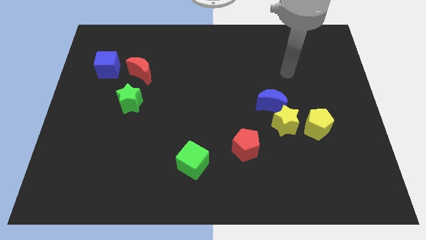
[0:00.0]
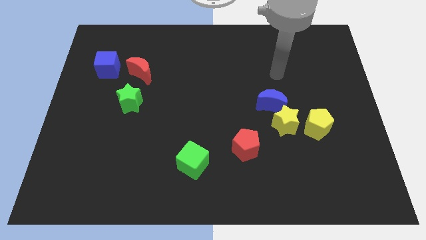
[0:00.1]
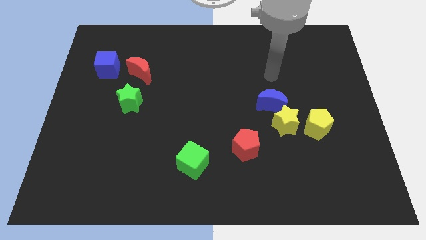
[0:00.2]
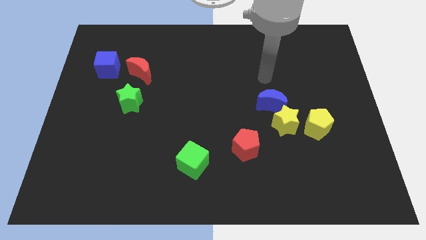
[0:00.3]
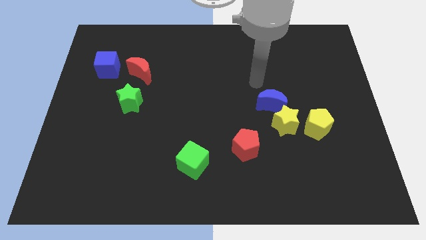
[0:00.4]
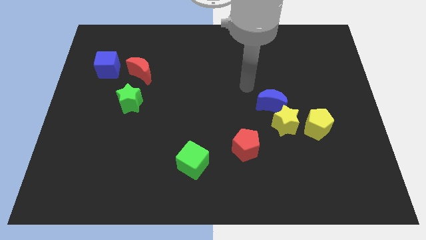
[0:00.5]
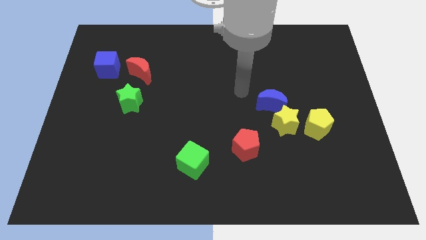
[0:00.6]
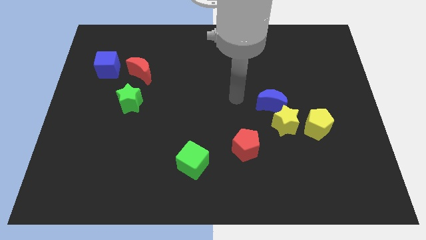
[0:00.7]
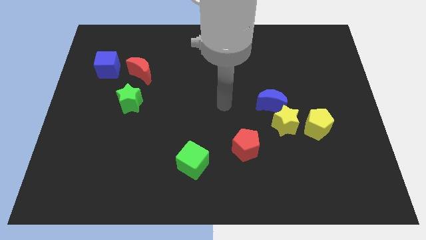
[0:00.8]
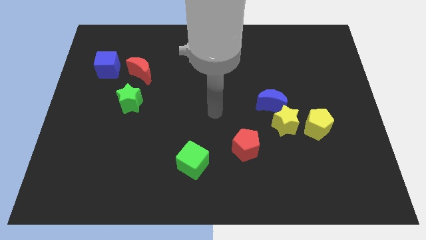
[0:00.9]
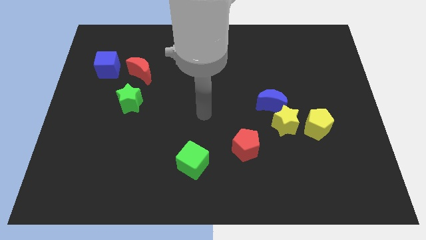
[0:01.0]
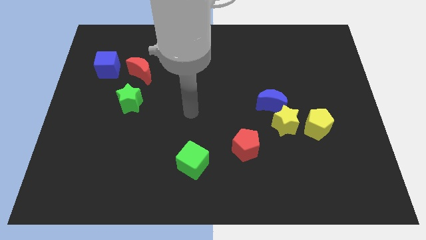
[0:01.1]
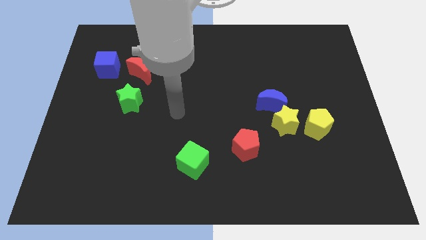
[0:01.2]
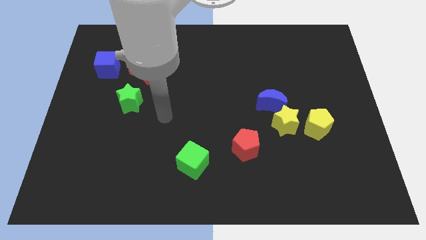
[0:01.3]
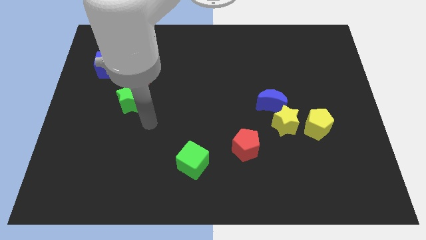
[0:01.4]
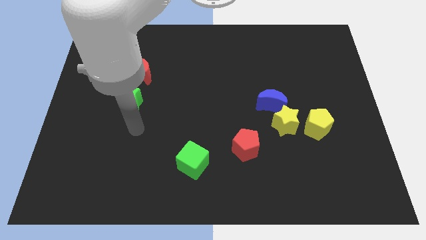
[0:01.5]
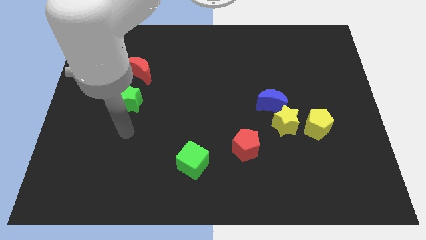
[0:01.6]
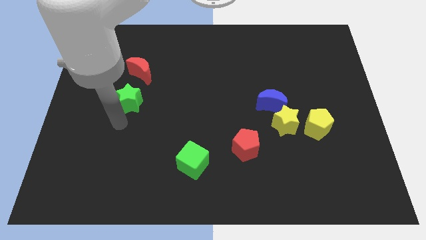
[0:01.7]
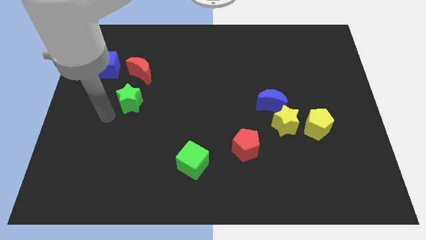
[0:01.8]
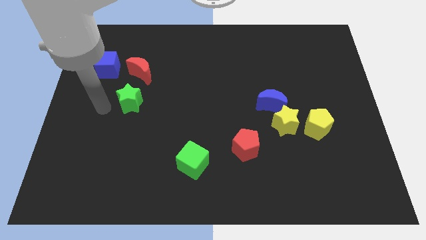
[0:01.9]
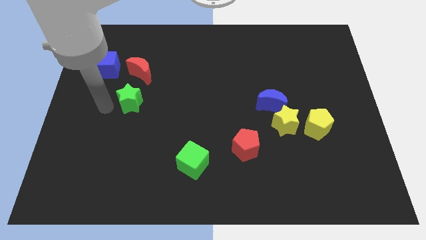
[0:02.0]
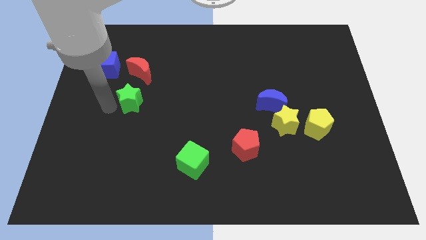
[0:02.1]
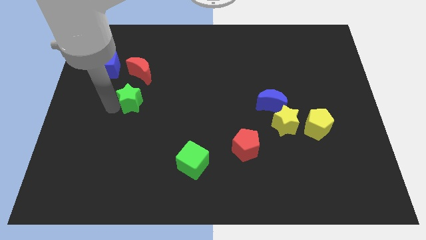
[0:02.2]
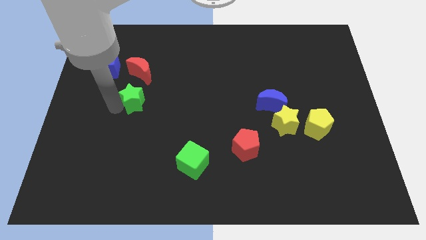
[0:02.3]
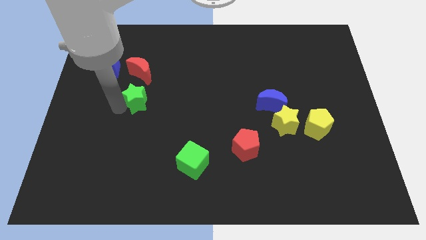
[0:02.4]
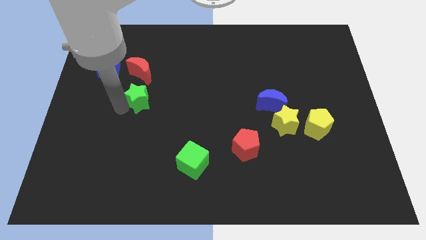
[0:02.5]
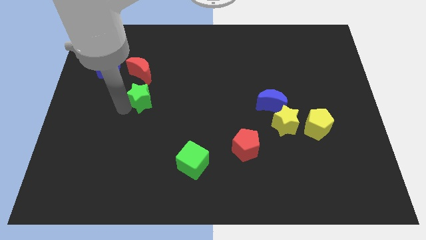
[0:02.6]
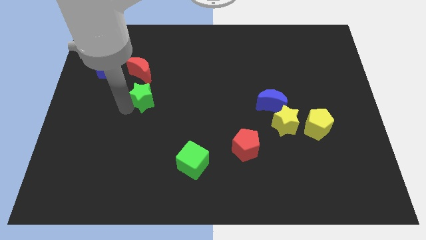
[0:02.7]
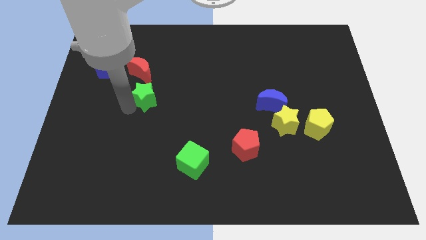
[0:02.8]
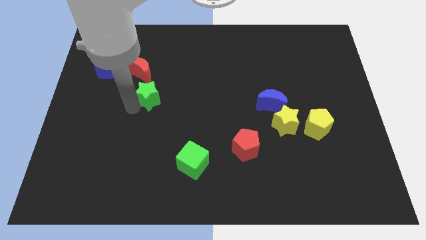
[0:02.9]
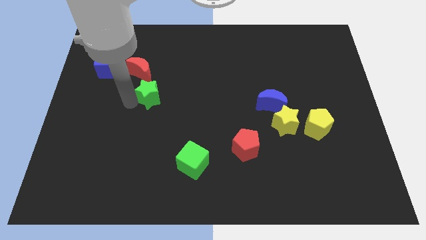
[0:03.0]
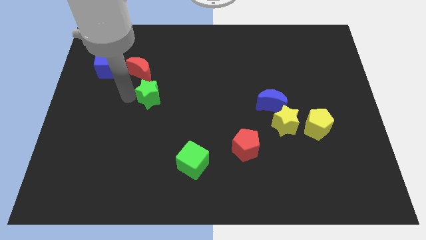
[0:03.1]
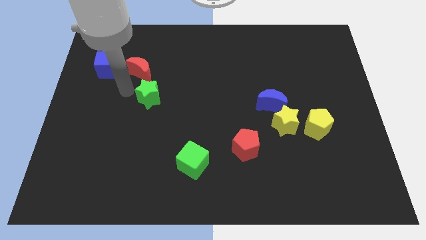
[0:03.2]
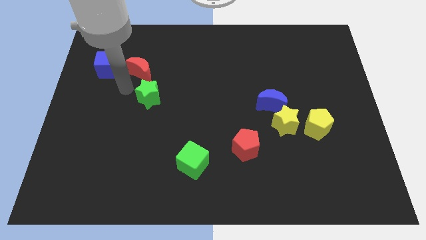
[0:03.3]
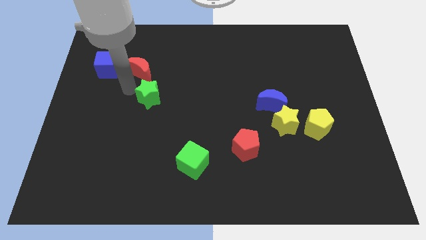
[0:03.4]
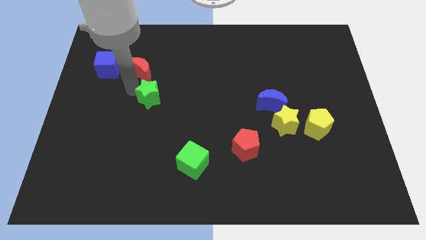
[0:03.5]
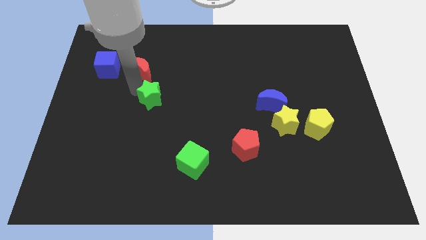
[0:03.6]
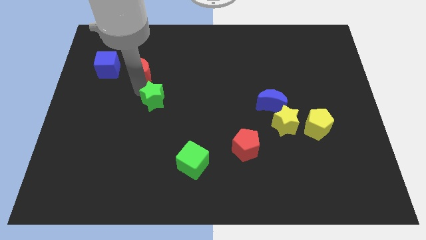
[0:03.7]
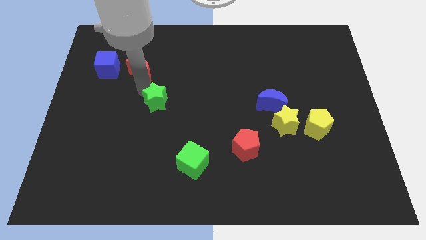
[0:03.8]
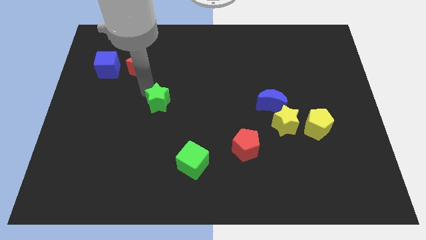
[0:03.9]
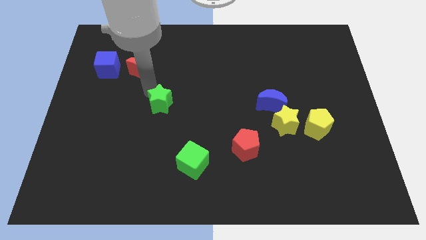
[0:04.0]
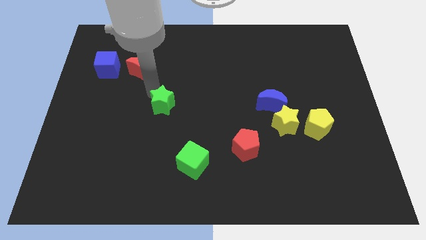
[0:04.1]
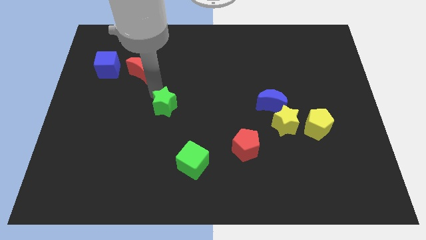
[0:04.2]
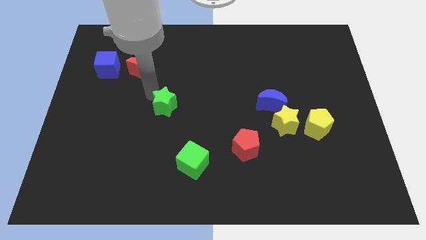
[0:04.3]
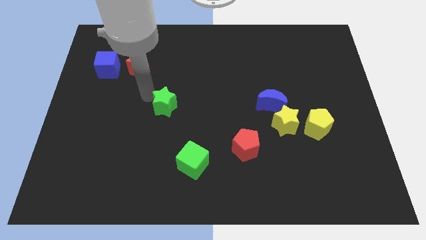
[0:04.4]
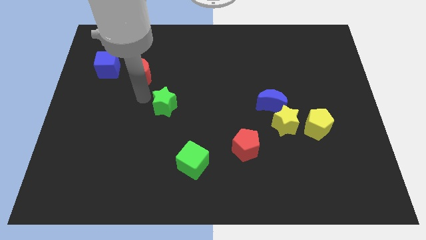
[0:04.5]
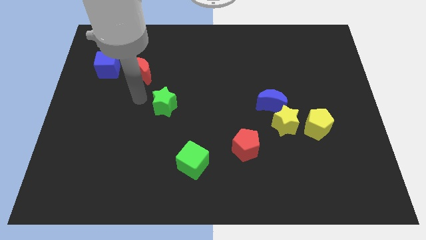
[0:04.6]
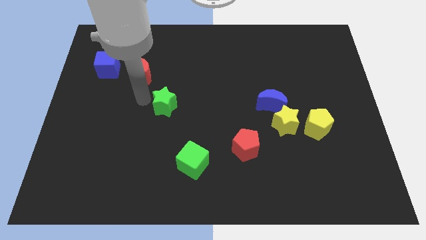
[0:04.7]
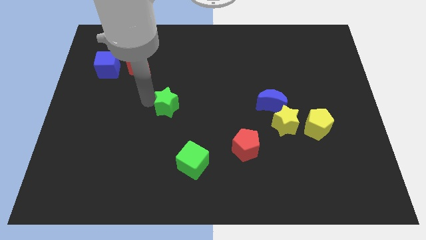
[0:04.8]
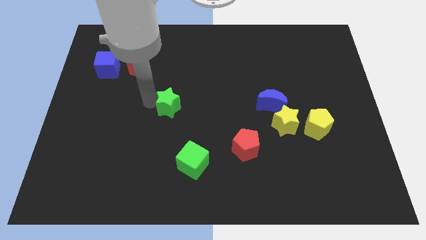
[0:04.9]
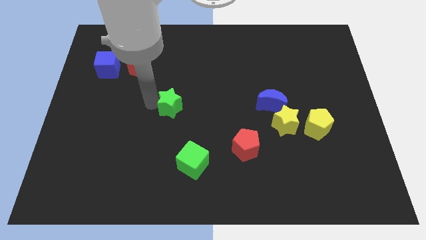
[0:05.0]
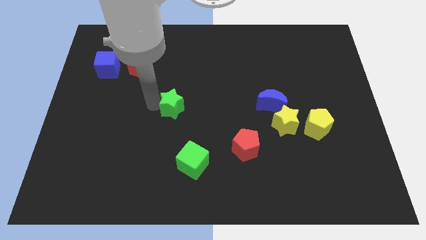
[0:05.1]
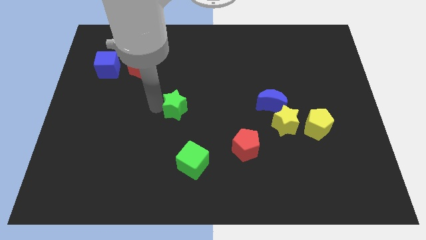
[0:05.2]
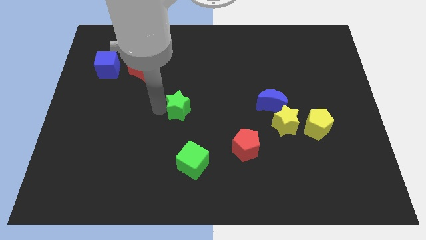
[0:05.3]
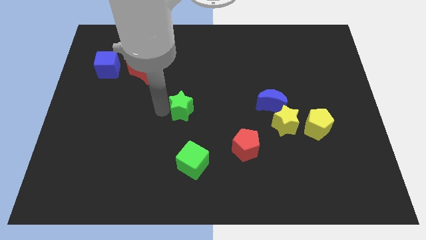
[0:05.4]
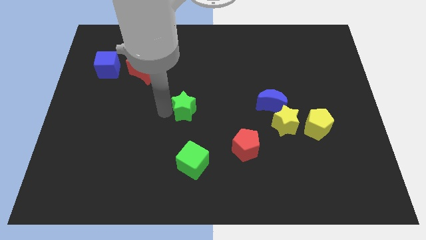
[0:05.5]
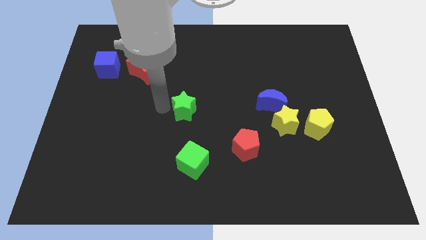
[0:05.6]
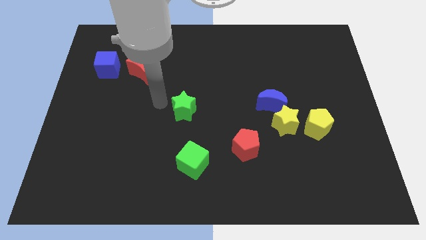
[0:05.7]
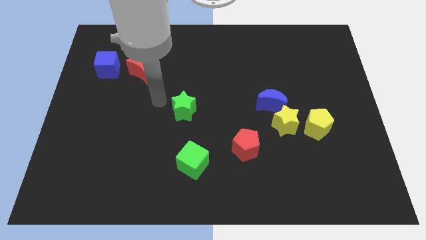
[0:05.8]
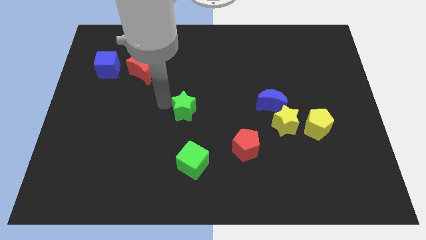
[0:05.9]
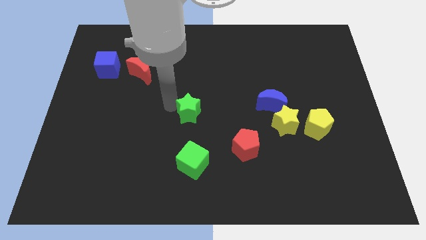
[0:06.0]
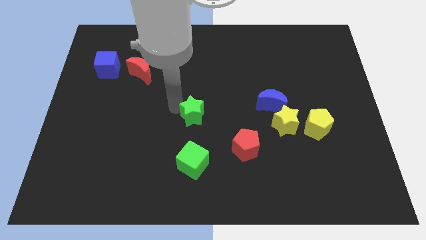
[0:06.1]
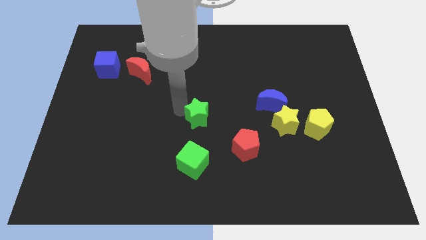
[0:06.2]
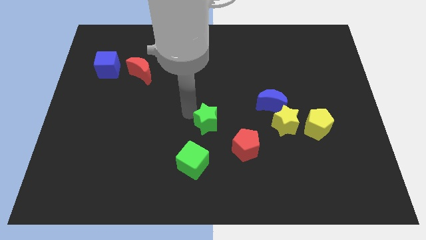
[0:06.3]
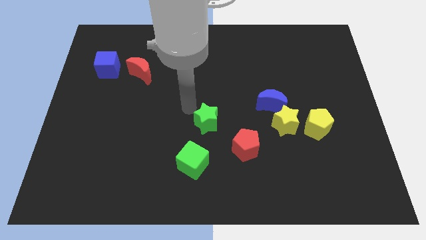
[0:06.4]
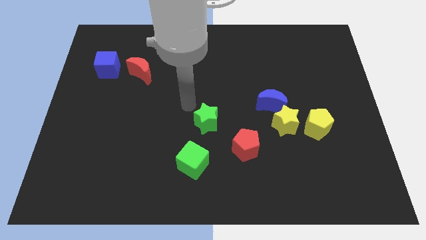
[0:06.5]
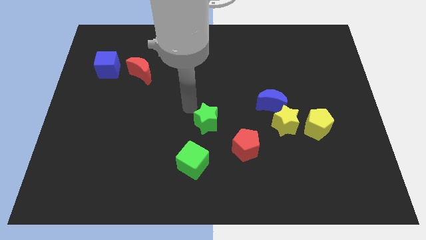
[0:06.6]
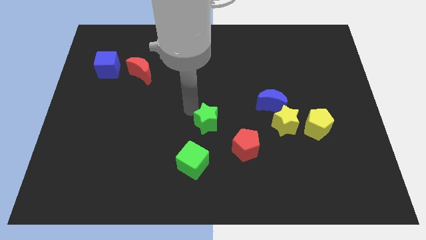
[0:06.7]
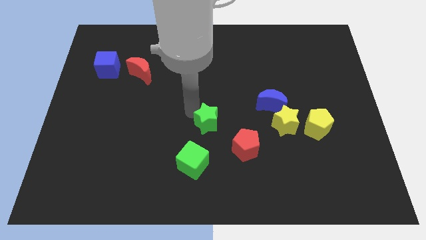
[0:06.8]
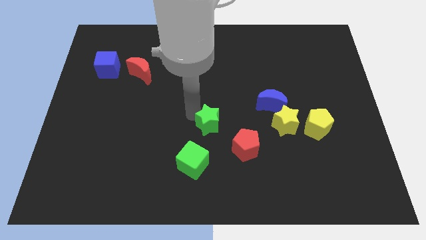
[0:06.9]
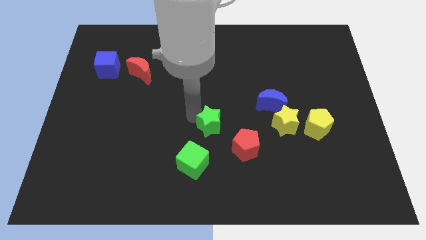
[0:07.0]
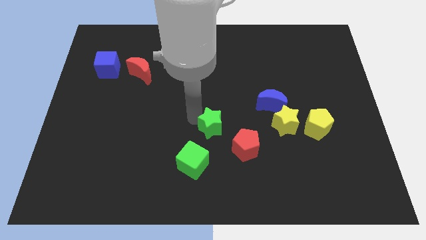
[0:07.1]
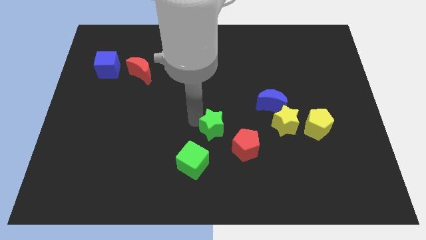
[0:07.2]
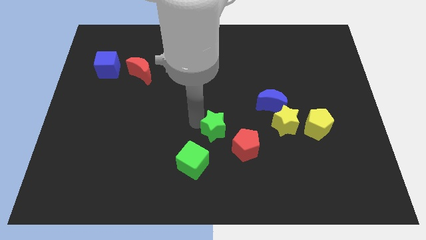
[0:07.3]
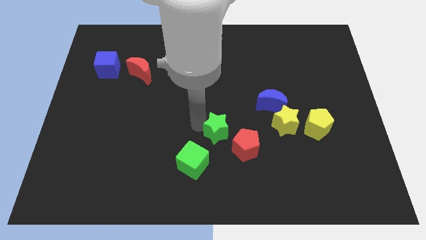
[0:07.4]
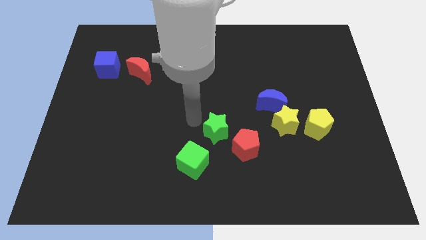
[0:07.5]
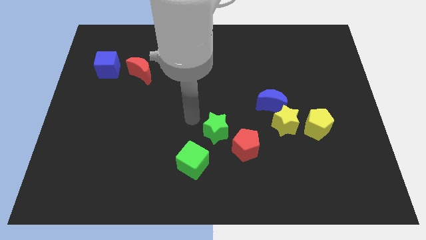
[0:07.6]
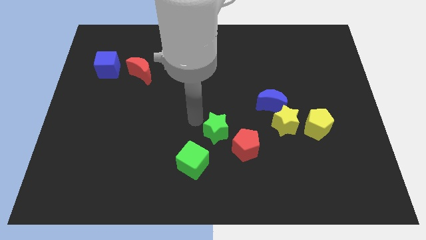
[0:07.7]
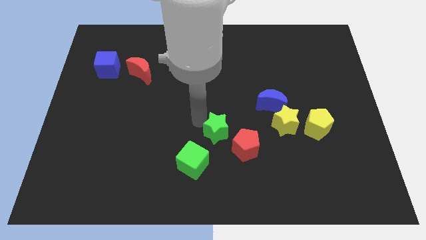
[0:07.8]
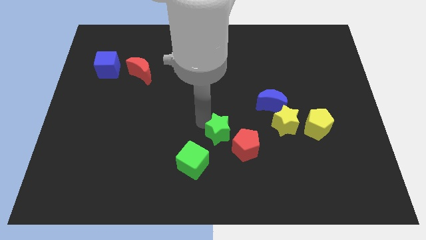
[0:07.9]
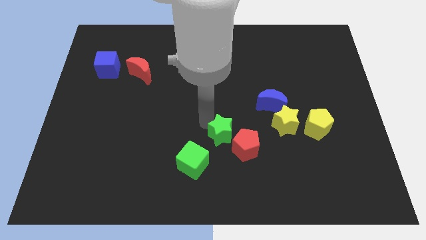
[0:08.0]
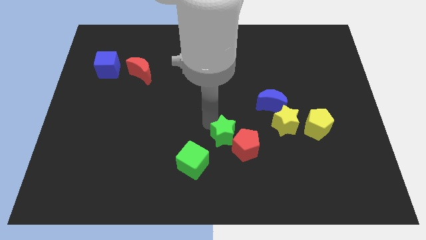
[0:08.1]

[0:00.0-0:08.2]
push the green star close to the red pentagon

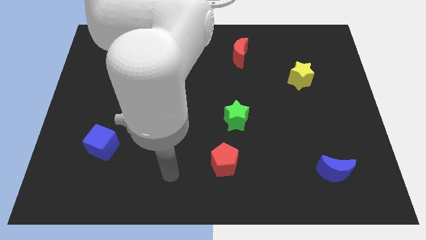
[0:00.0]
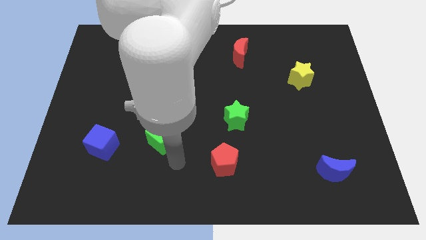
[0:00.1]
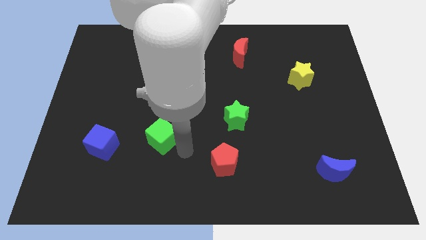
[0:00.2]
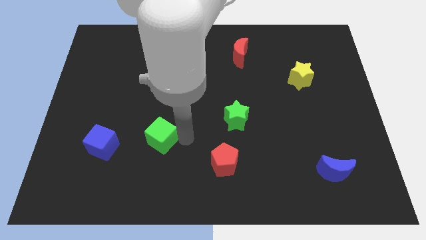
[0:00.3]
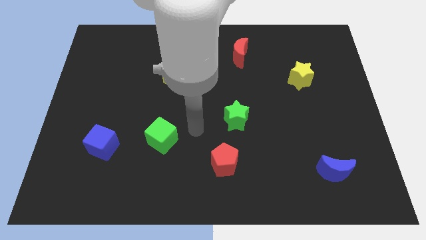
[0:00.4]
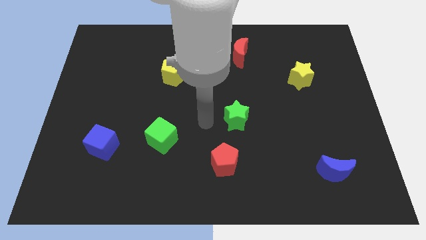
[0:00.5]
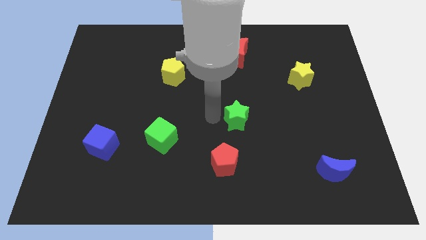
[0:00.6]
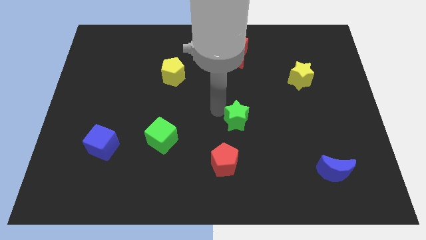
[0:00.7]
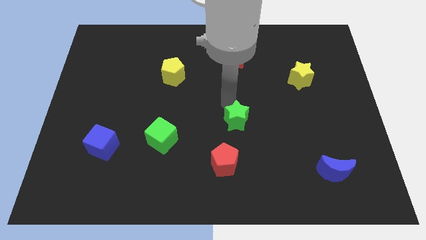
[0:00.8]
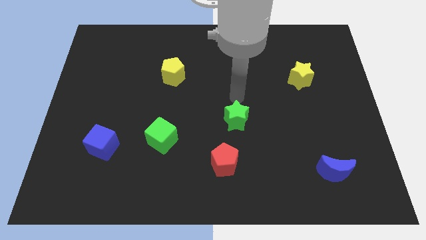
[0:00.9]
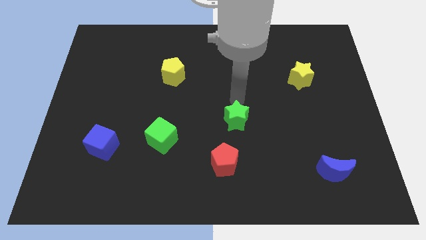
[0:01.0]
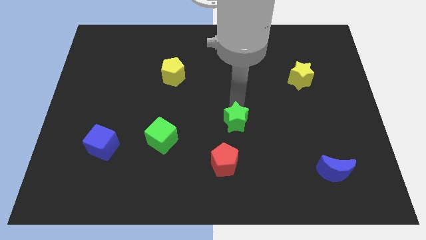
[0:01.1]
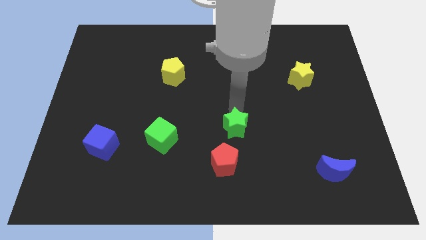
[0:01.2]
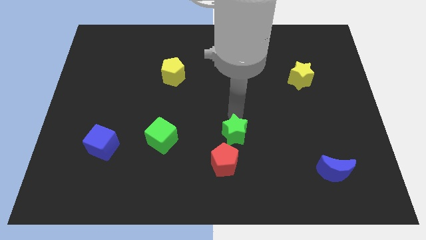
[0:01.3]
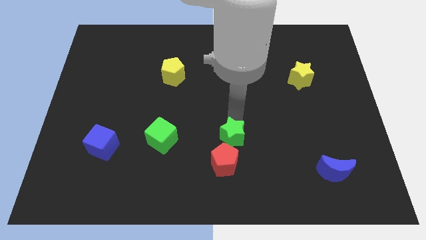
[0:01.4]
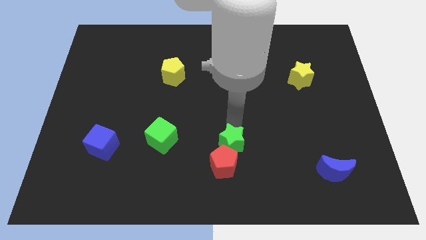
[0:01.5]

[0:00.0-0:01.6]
push the green star next to the red pentagon
